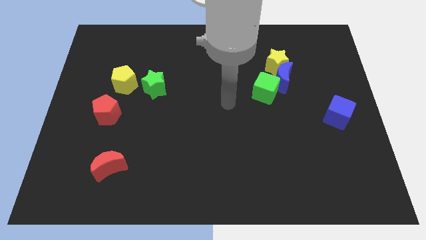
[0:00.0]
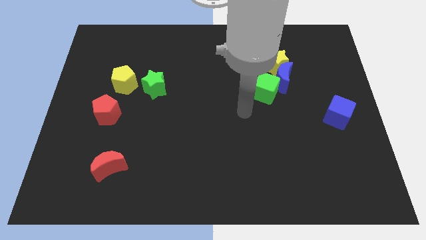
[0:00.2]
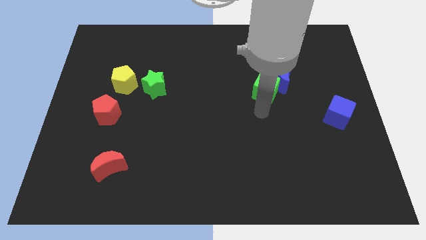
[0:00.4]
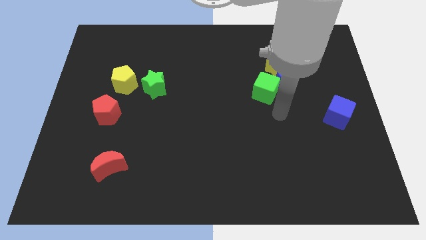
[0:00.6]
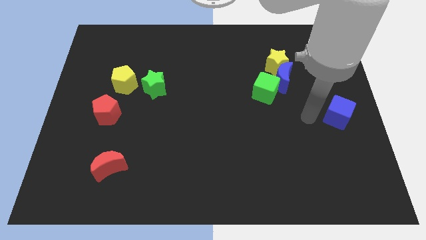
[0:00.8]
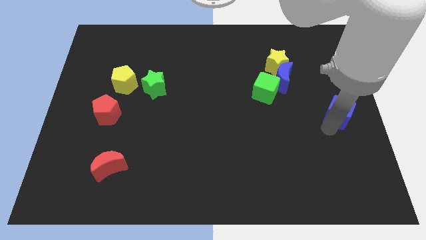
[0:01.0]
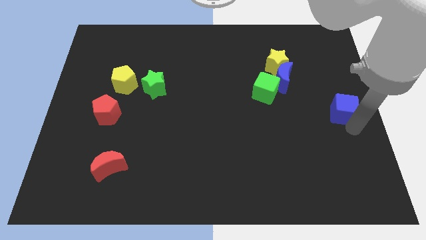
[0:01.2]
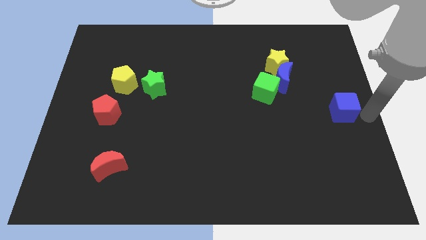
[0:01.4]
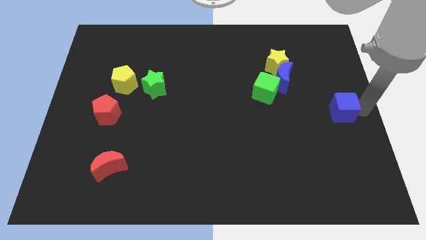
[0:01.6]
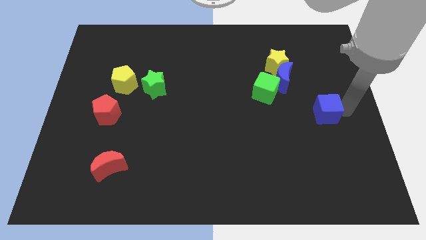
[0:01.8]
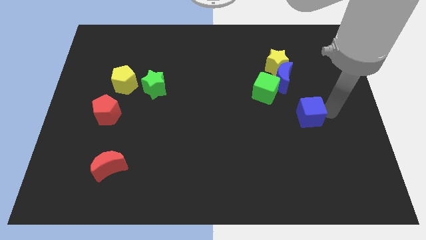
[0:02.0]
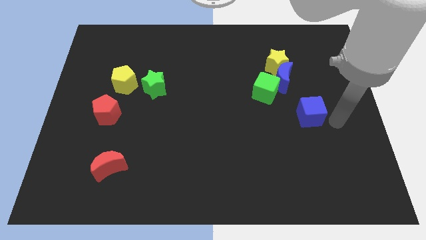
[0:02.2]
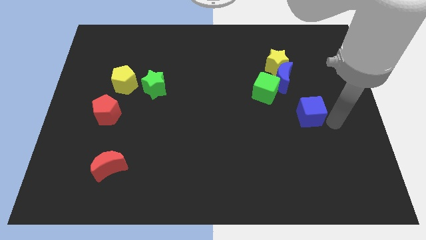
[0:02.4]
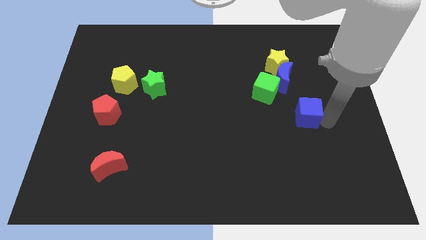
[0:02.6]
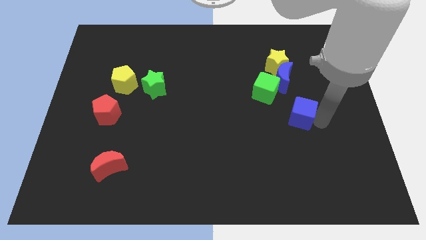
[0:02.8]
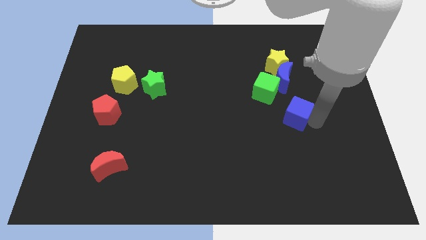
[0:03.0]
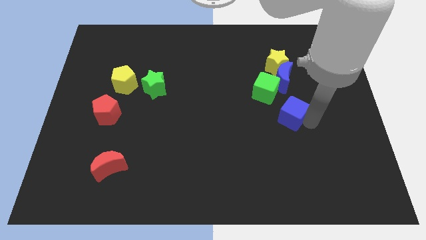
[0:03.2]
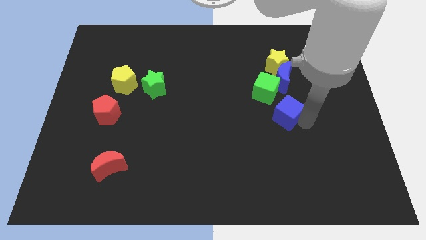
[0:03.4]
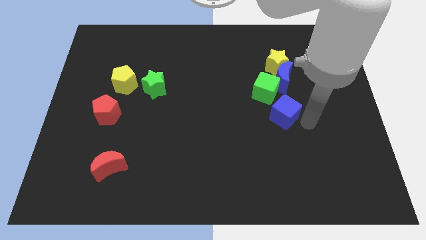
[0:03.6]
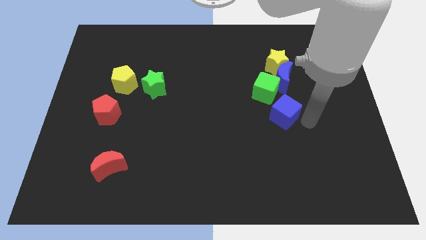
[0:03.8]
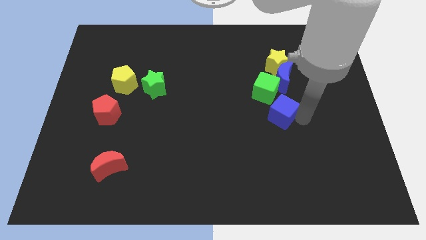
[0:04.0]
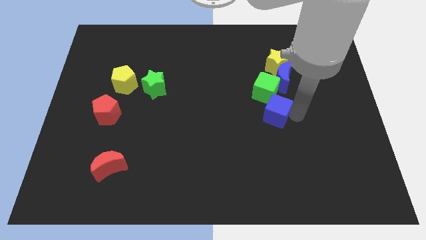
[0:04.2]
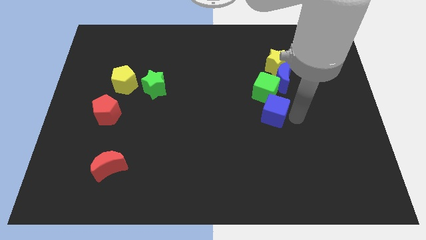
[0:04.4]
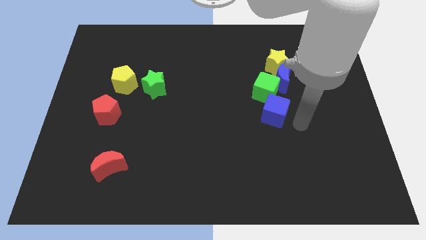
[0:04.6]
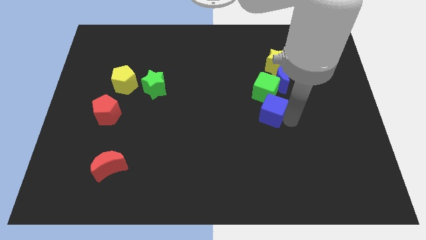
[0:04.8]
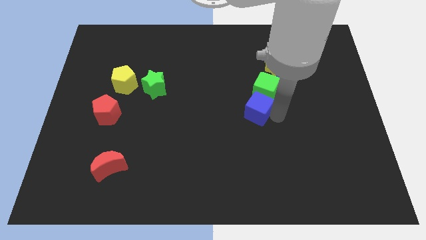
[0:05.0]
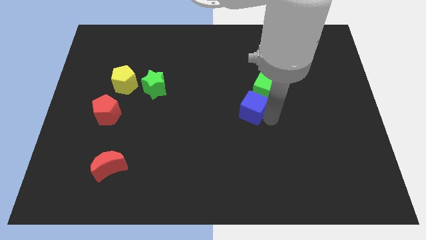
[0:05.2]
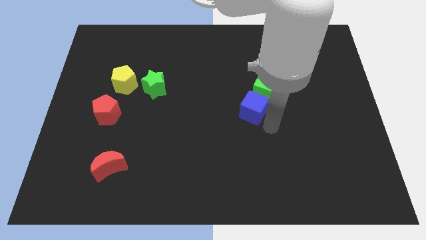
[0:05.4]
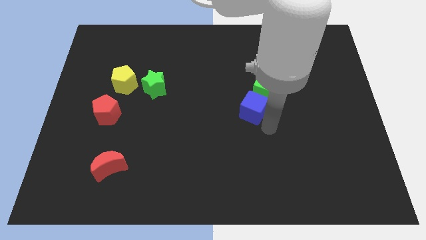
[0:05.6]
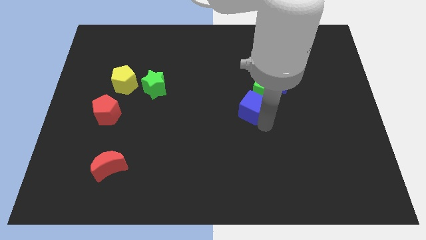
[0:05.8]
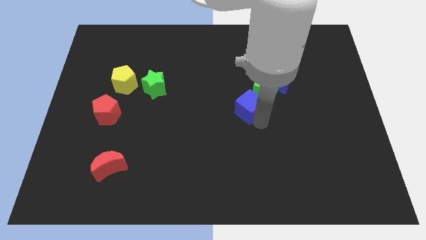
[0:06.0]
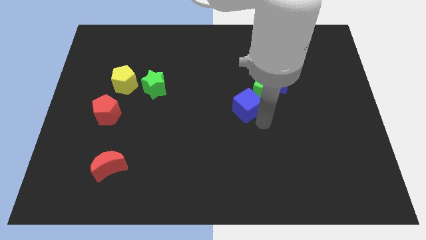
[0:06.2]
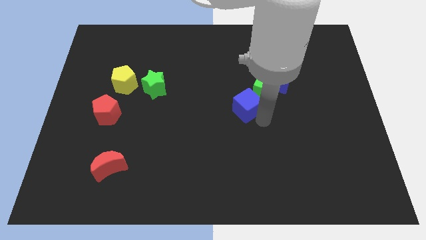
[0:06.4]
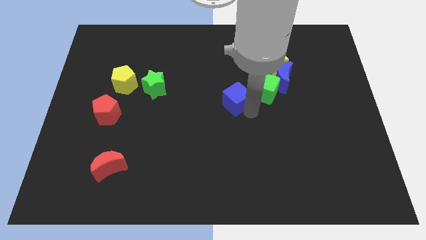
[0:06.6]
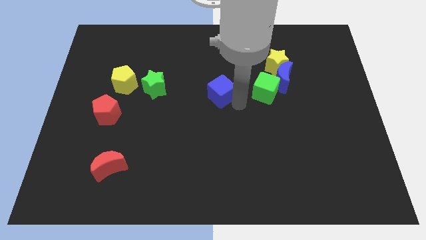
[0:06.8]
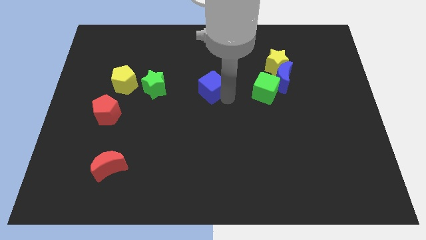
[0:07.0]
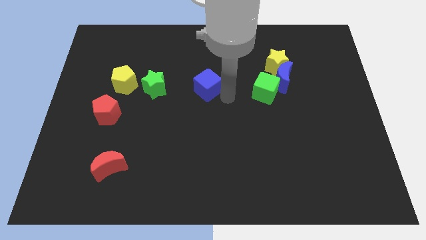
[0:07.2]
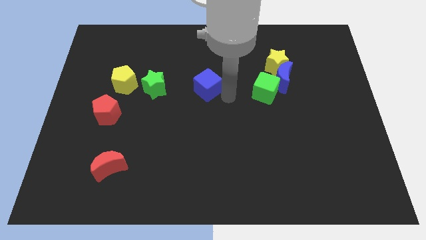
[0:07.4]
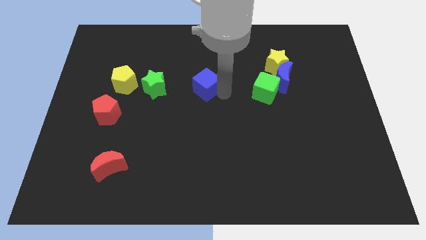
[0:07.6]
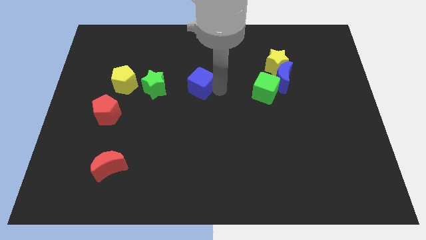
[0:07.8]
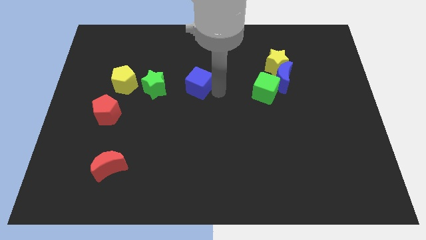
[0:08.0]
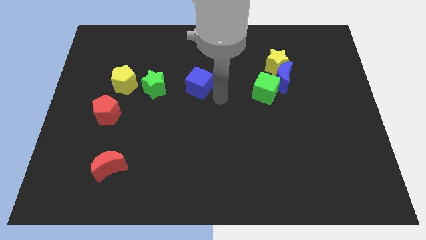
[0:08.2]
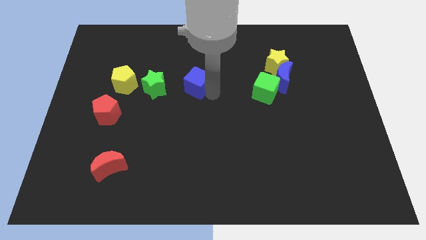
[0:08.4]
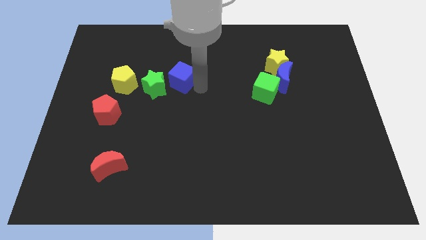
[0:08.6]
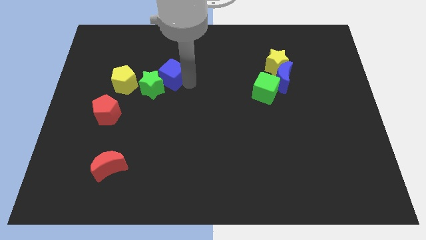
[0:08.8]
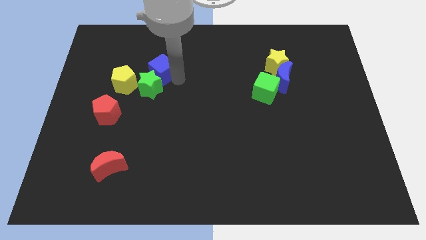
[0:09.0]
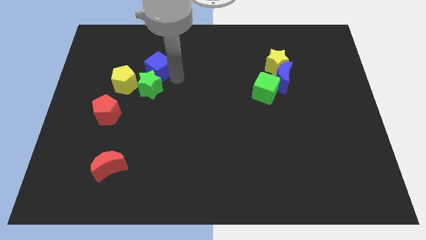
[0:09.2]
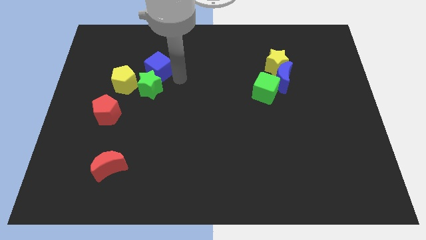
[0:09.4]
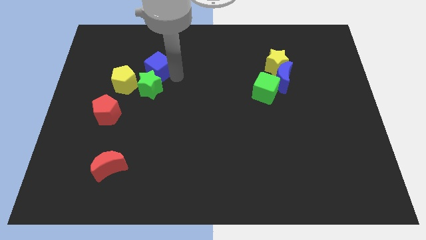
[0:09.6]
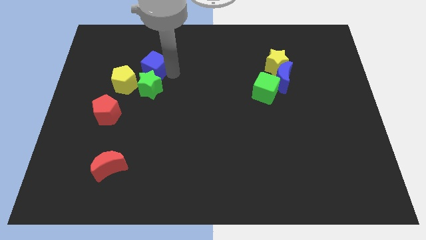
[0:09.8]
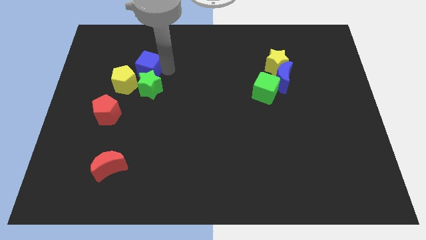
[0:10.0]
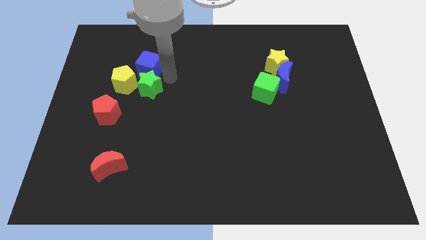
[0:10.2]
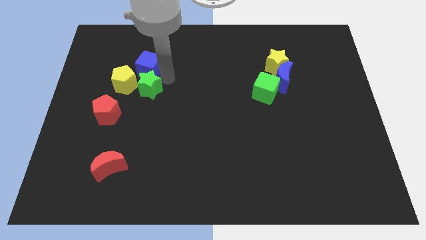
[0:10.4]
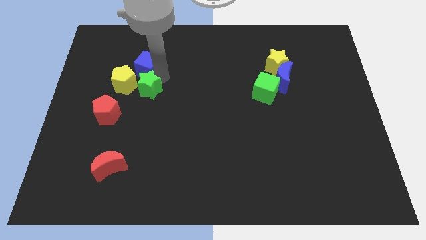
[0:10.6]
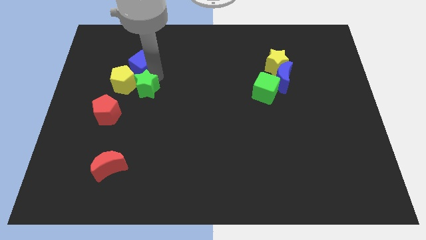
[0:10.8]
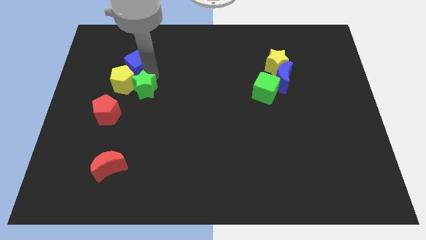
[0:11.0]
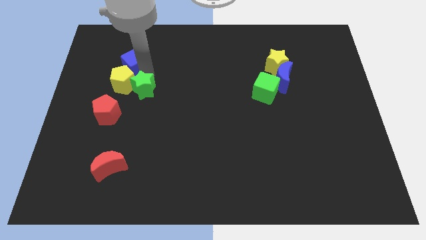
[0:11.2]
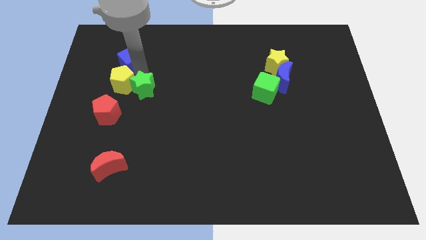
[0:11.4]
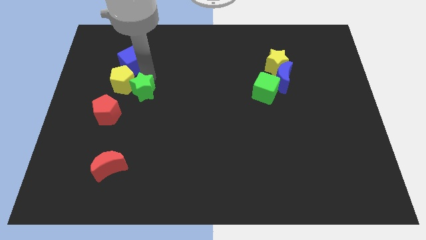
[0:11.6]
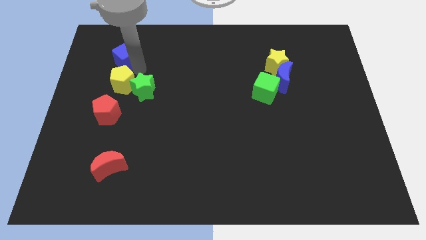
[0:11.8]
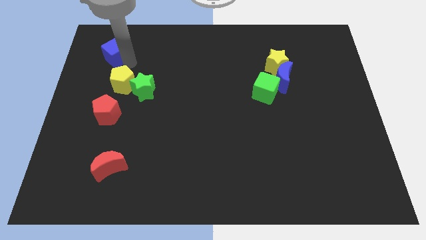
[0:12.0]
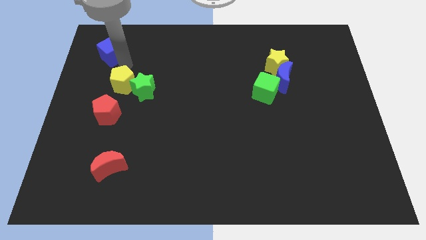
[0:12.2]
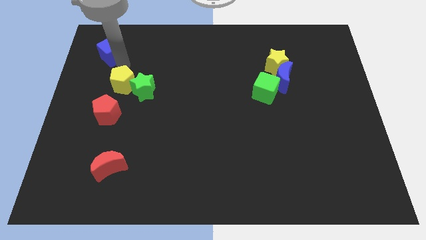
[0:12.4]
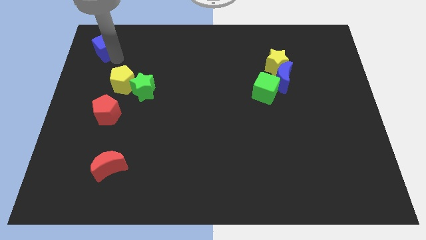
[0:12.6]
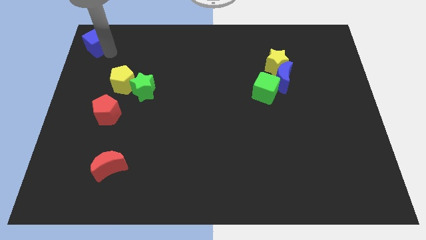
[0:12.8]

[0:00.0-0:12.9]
push the blue cube to the top left of the board
